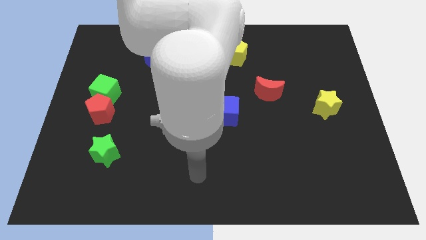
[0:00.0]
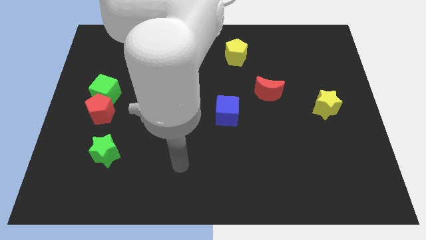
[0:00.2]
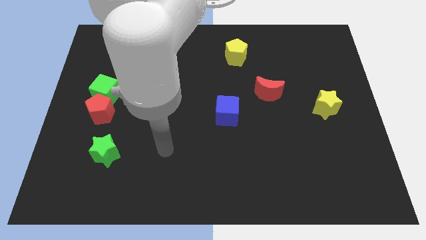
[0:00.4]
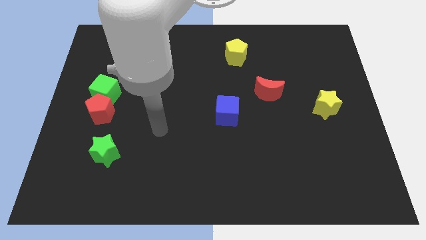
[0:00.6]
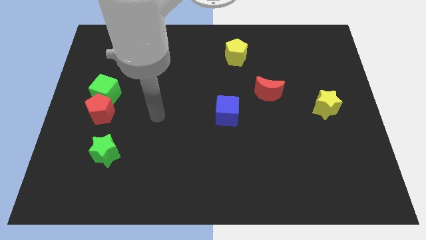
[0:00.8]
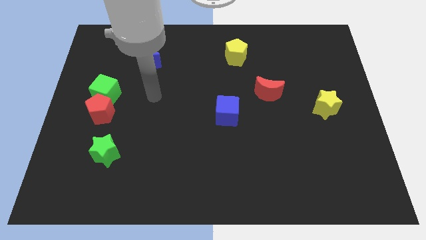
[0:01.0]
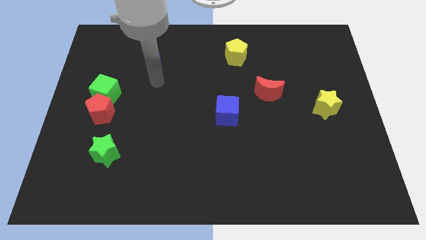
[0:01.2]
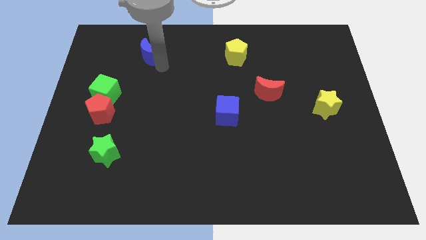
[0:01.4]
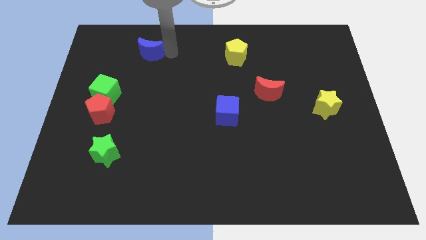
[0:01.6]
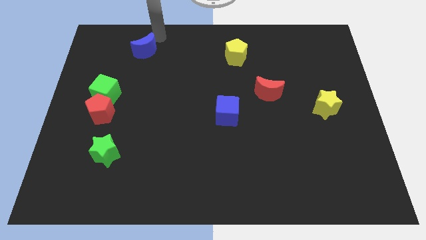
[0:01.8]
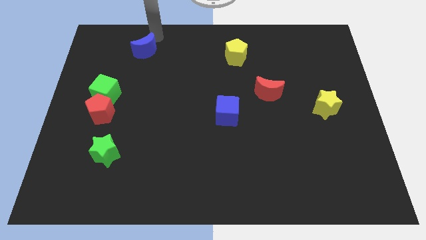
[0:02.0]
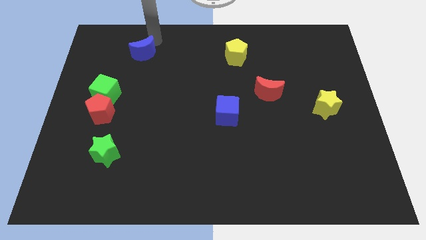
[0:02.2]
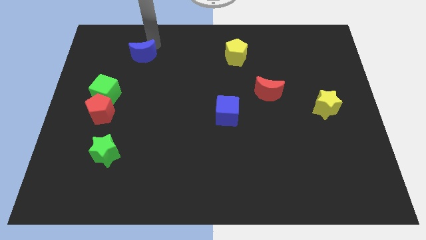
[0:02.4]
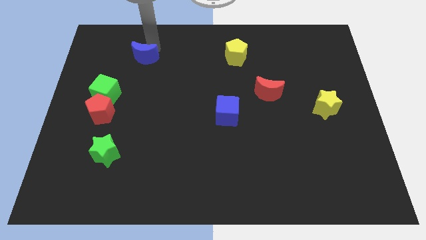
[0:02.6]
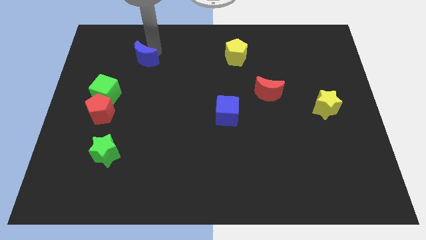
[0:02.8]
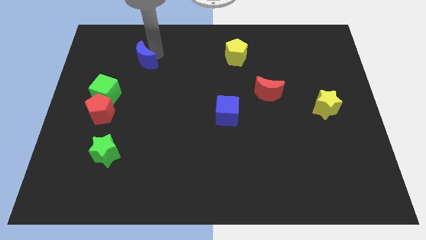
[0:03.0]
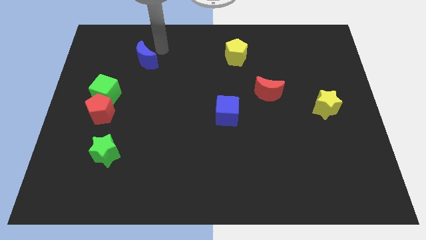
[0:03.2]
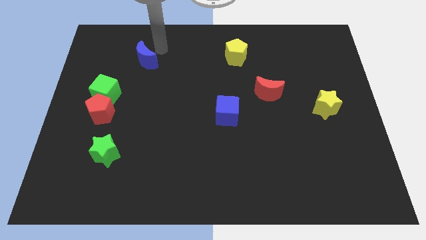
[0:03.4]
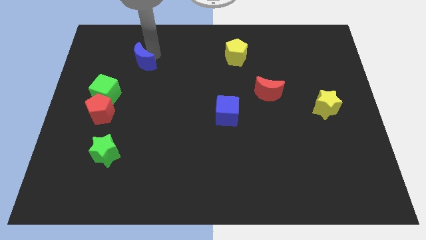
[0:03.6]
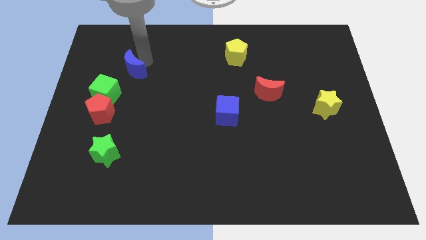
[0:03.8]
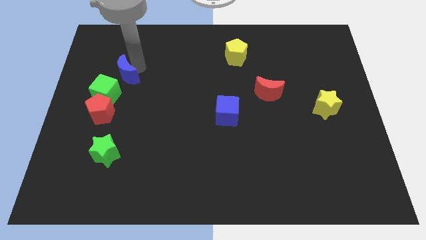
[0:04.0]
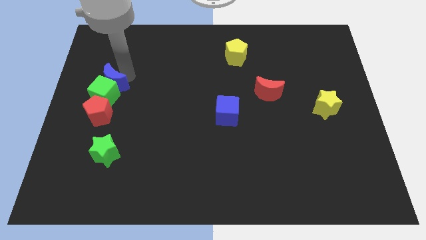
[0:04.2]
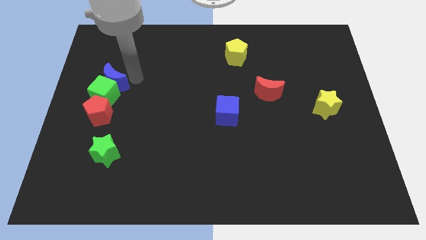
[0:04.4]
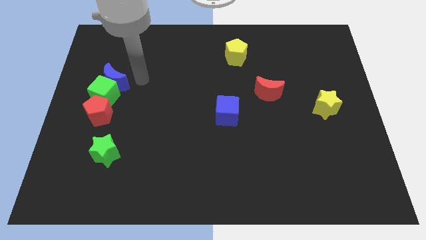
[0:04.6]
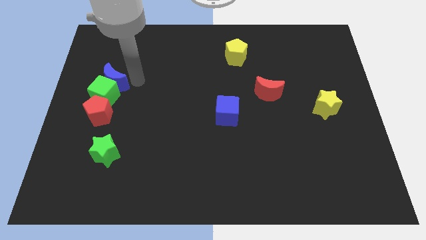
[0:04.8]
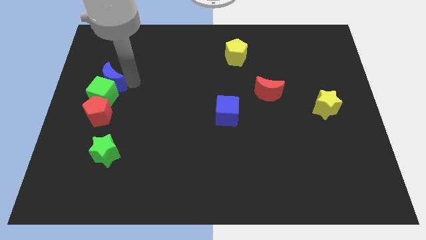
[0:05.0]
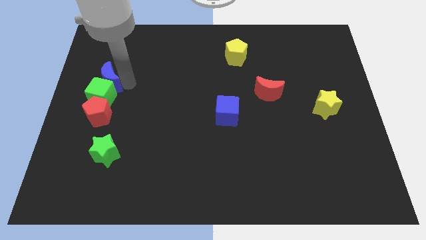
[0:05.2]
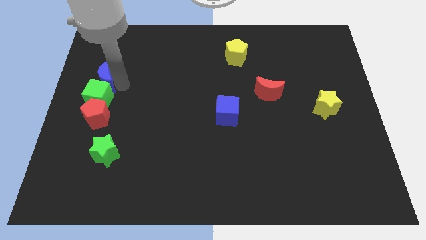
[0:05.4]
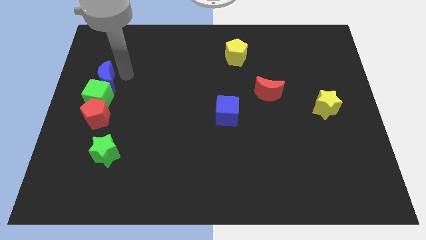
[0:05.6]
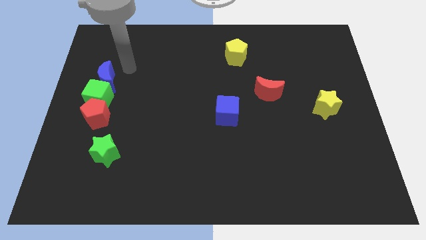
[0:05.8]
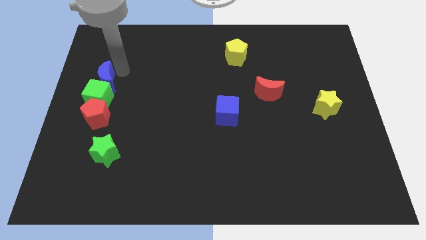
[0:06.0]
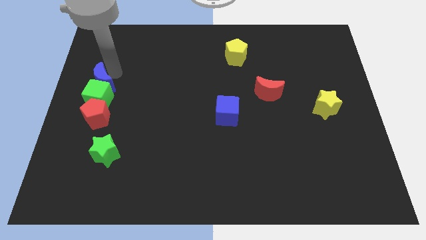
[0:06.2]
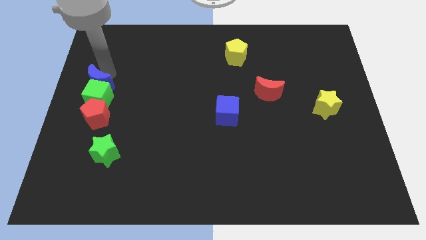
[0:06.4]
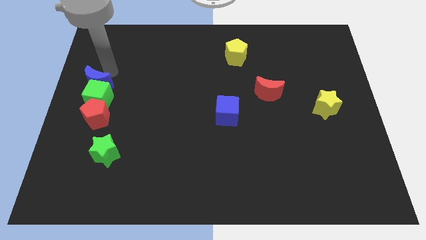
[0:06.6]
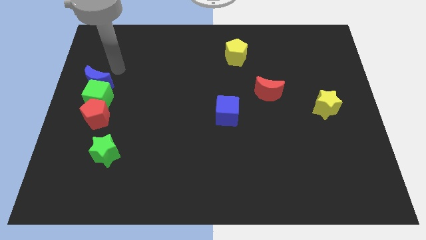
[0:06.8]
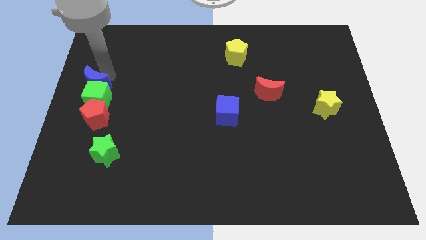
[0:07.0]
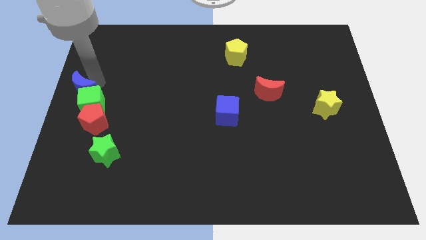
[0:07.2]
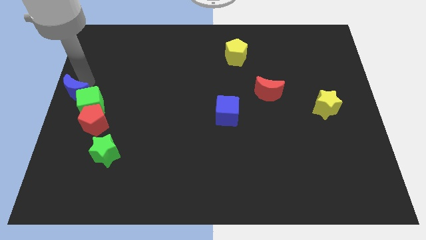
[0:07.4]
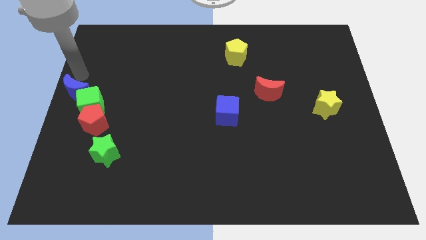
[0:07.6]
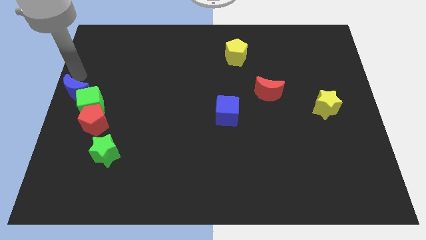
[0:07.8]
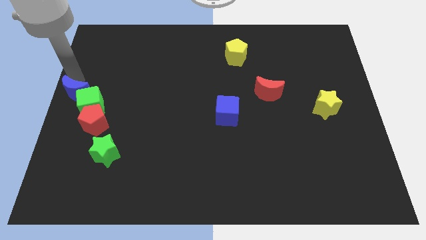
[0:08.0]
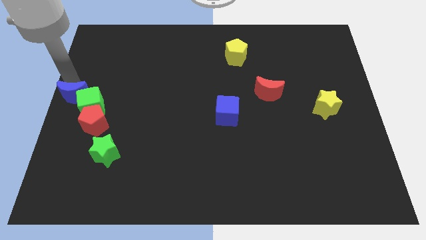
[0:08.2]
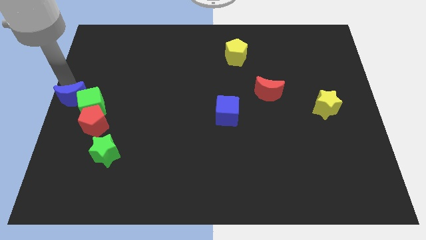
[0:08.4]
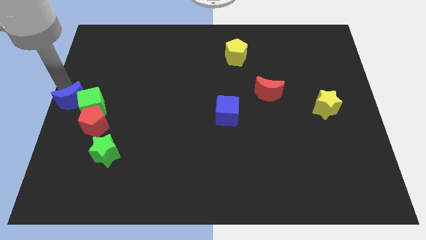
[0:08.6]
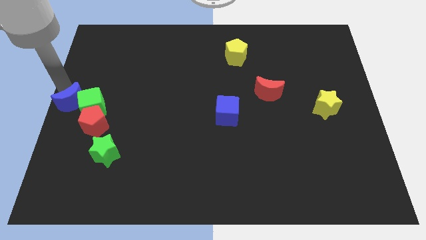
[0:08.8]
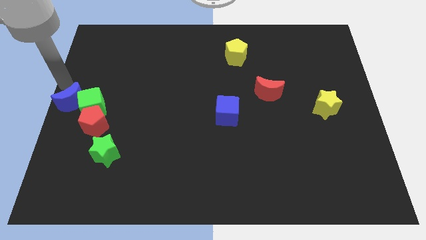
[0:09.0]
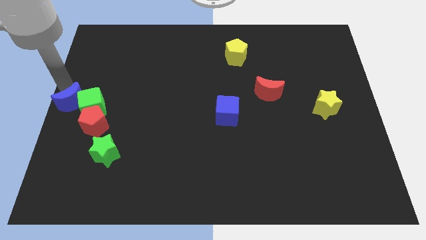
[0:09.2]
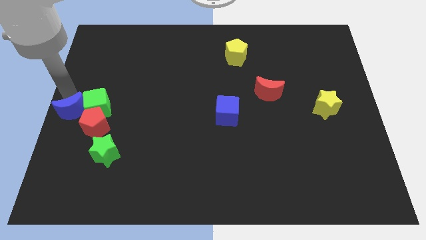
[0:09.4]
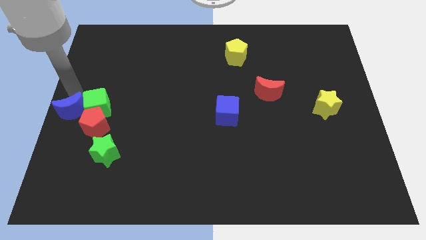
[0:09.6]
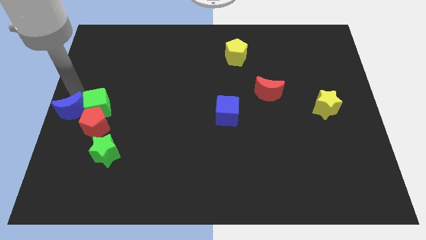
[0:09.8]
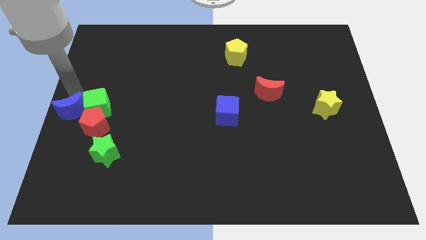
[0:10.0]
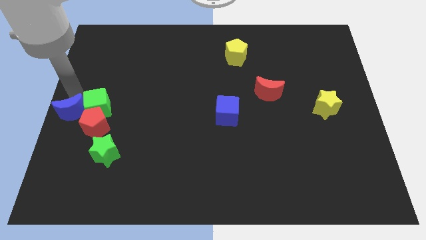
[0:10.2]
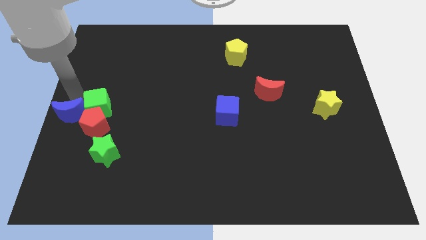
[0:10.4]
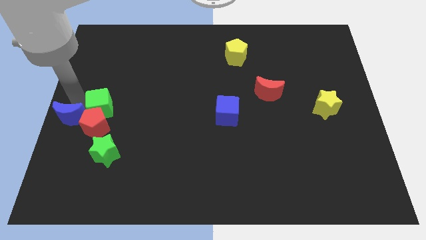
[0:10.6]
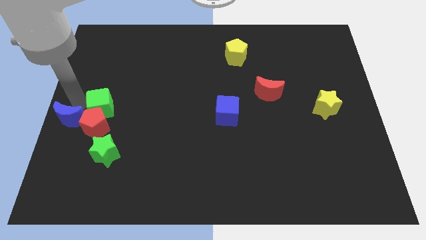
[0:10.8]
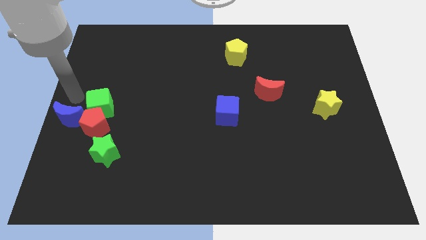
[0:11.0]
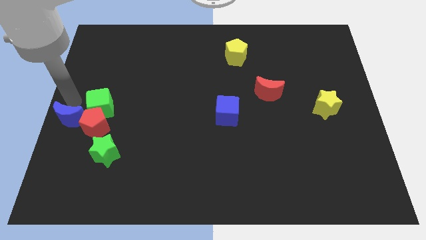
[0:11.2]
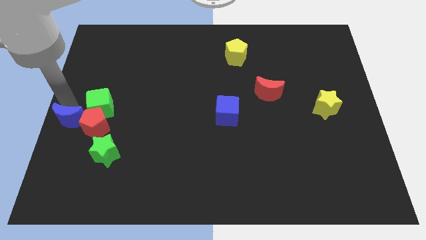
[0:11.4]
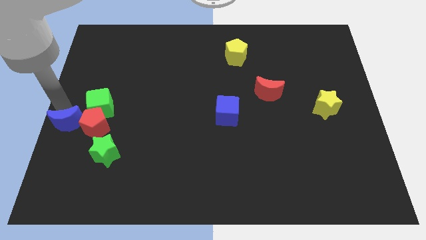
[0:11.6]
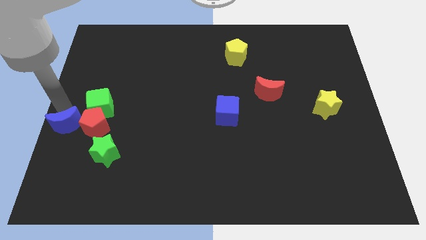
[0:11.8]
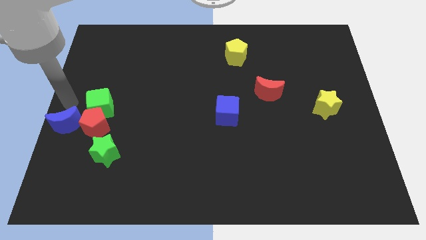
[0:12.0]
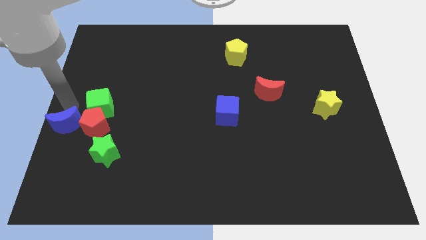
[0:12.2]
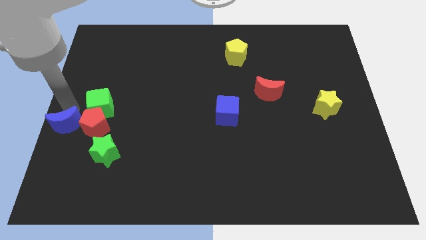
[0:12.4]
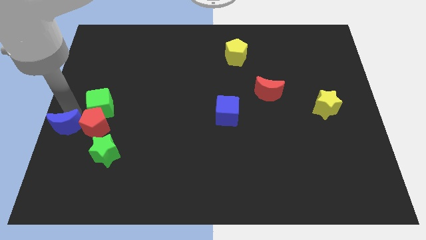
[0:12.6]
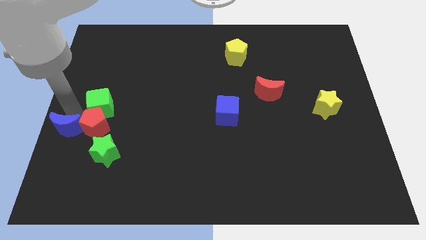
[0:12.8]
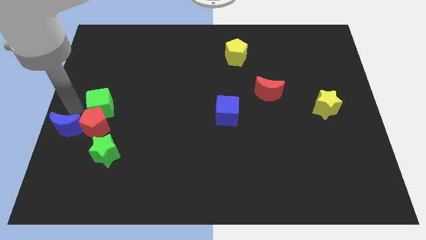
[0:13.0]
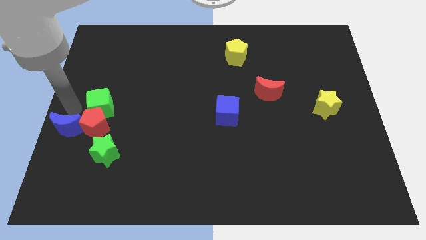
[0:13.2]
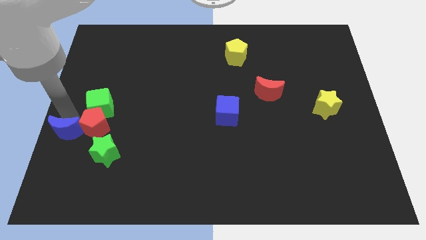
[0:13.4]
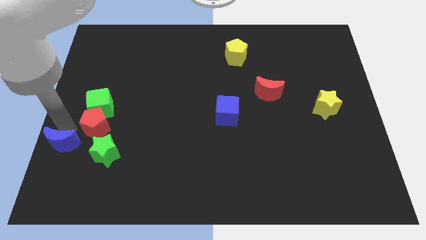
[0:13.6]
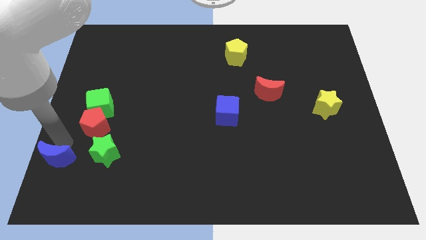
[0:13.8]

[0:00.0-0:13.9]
put the blue moon to the bottom left corner
